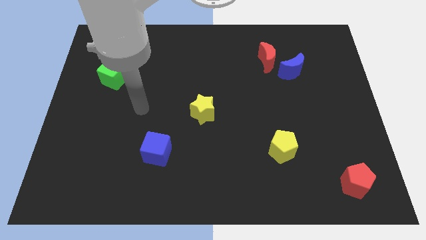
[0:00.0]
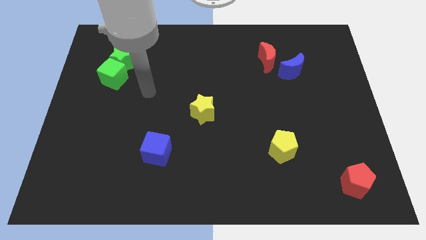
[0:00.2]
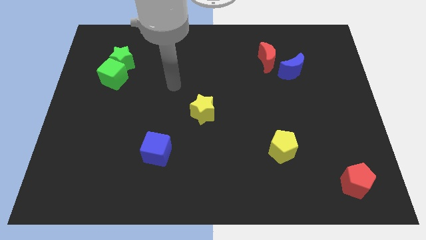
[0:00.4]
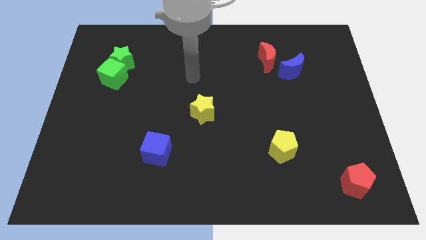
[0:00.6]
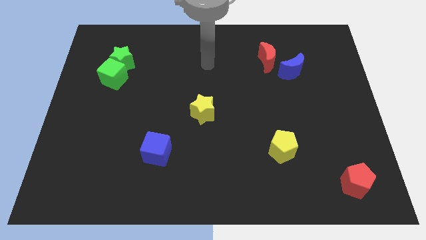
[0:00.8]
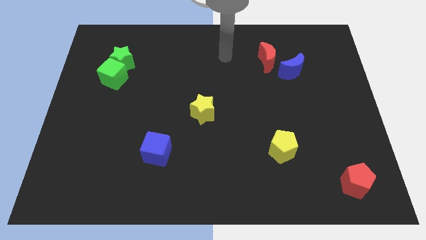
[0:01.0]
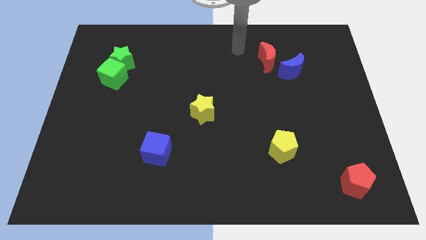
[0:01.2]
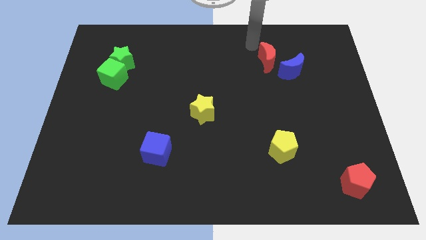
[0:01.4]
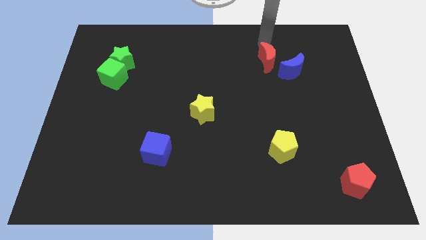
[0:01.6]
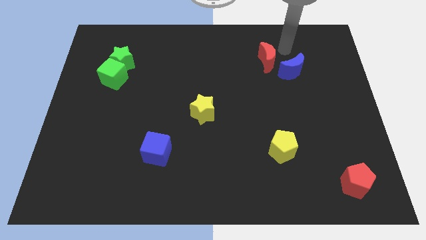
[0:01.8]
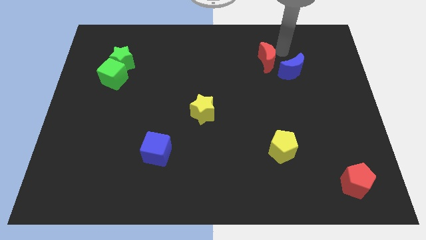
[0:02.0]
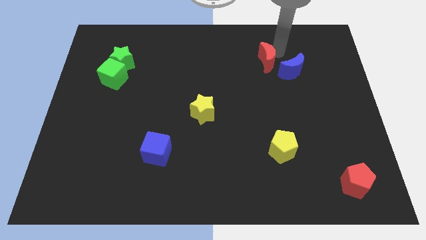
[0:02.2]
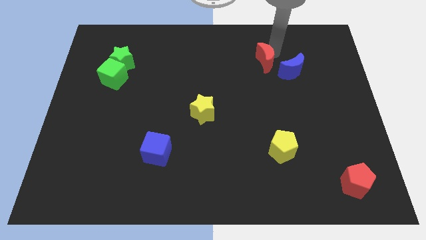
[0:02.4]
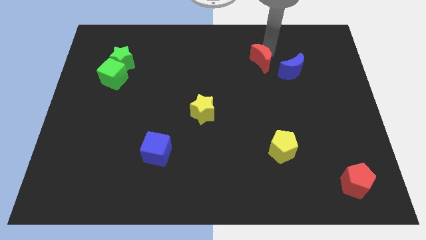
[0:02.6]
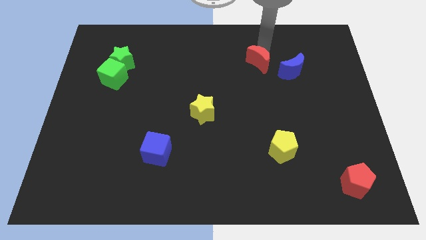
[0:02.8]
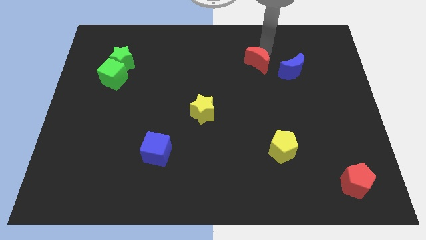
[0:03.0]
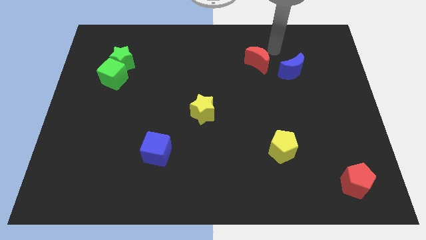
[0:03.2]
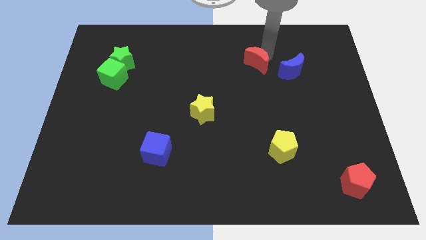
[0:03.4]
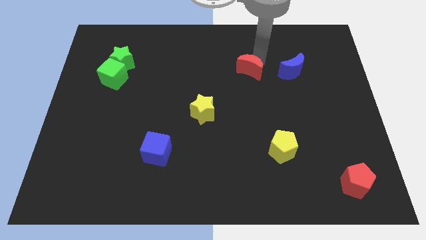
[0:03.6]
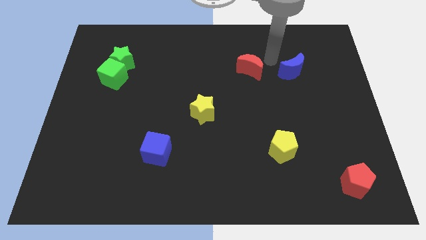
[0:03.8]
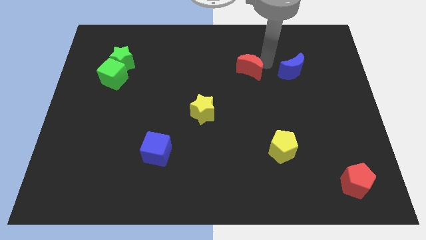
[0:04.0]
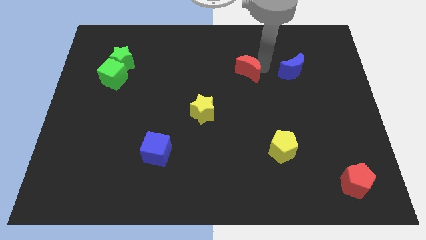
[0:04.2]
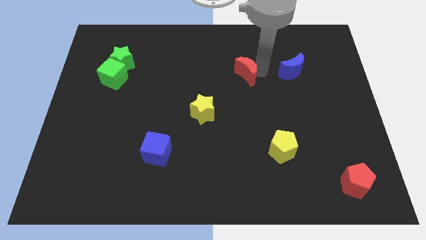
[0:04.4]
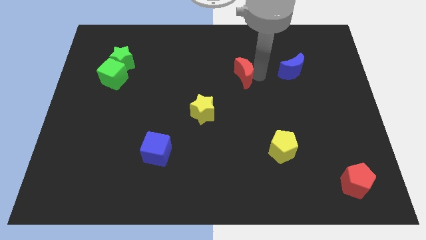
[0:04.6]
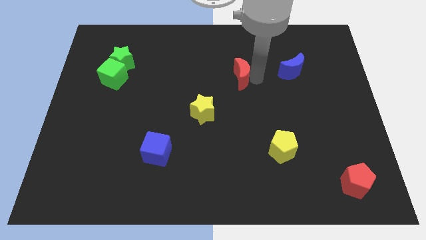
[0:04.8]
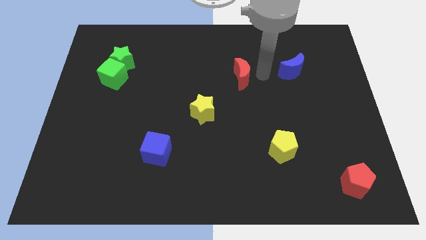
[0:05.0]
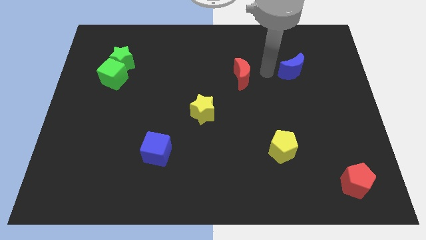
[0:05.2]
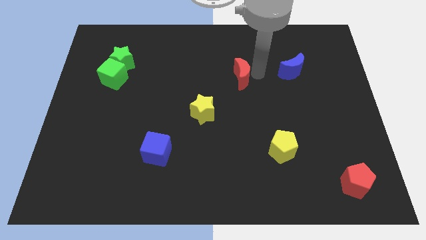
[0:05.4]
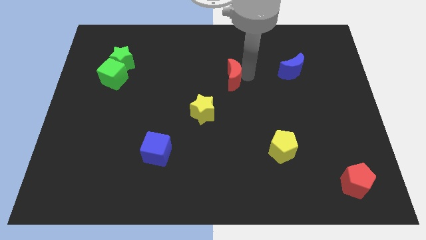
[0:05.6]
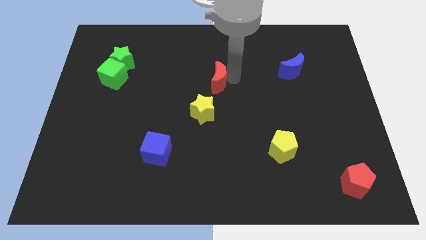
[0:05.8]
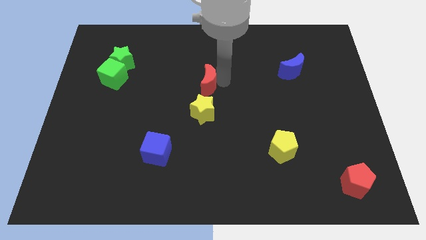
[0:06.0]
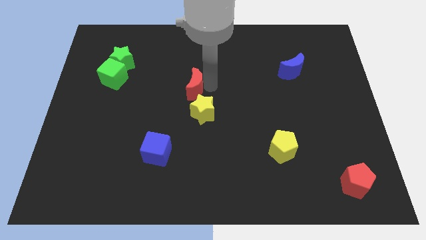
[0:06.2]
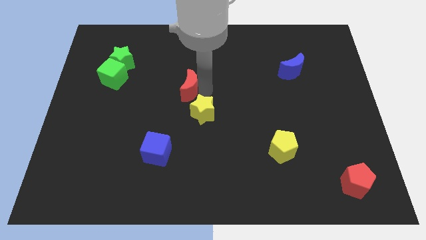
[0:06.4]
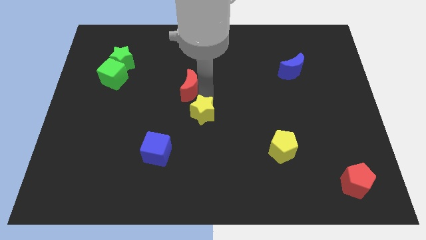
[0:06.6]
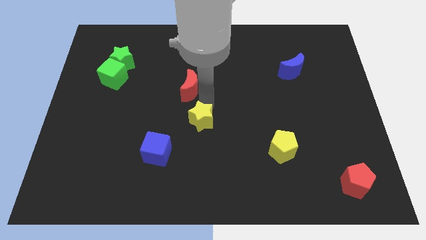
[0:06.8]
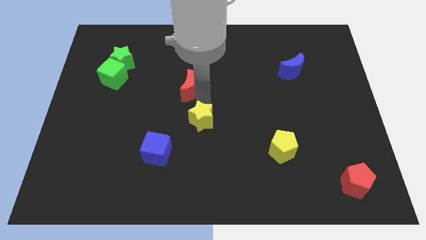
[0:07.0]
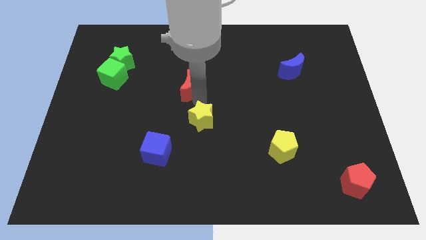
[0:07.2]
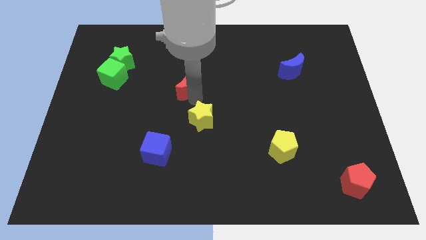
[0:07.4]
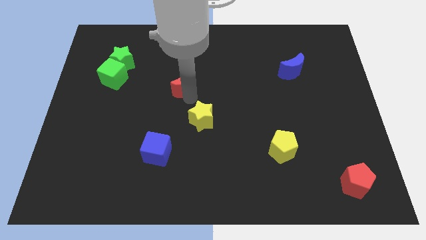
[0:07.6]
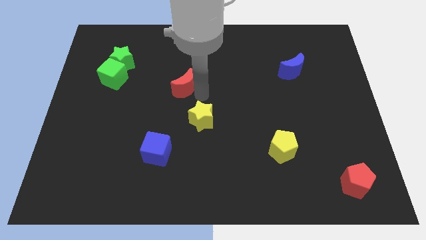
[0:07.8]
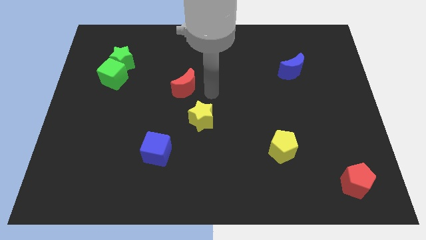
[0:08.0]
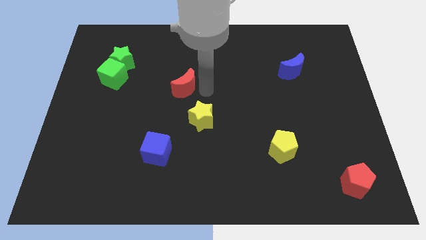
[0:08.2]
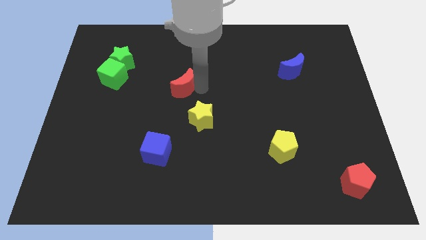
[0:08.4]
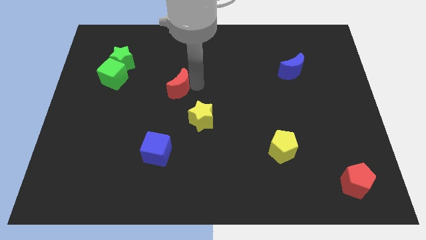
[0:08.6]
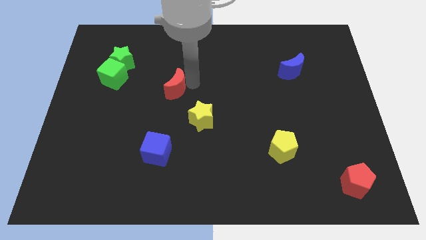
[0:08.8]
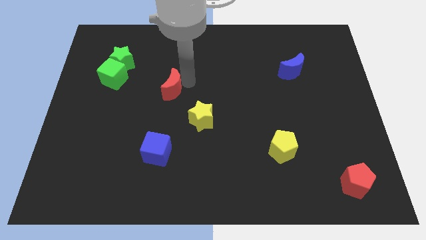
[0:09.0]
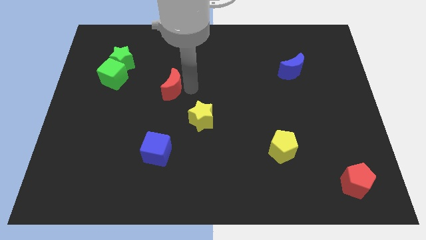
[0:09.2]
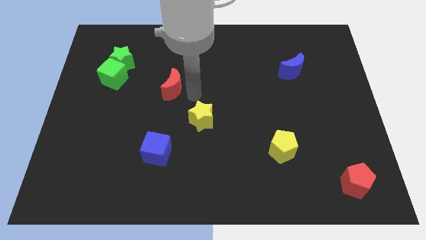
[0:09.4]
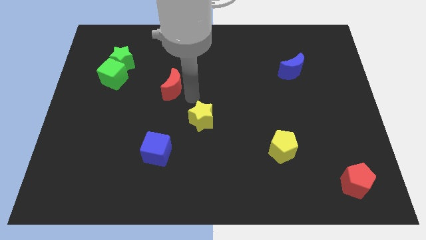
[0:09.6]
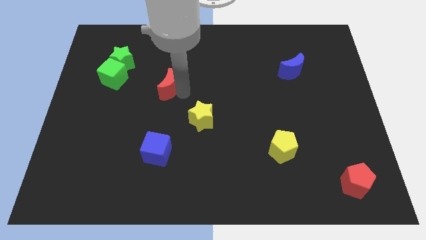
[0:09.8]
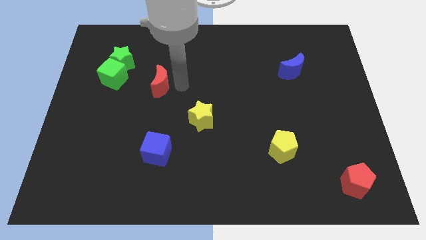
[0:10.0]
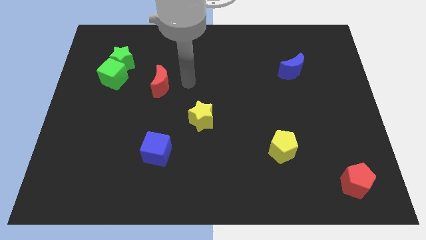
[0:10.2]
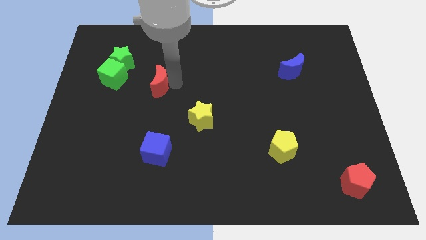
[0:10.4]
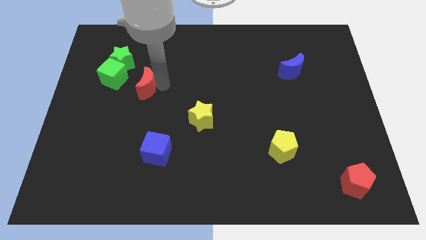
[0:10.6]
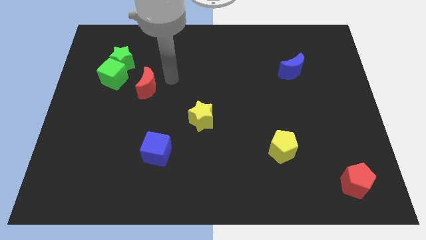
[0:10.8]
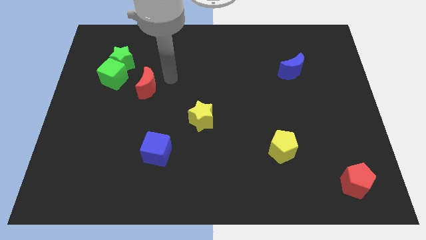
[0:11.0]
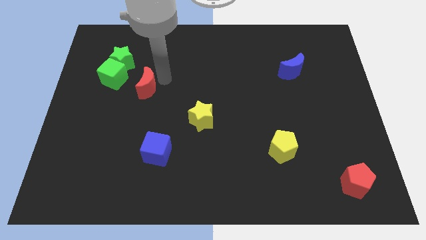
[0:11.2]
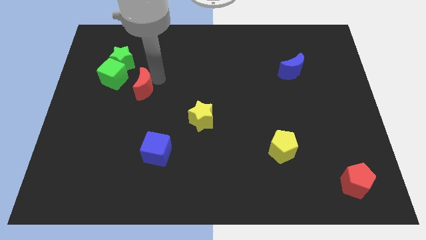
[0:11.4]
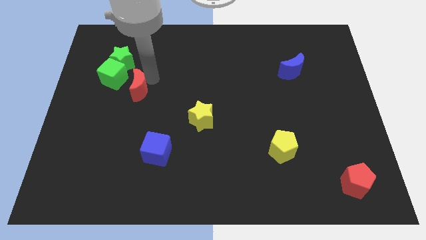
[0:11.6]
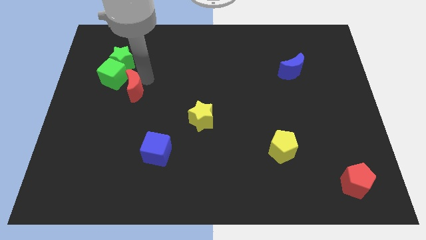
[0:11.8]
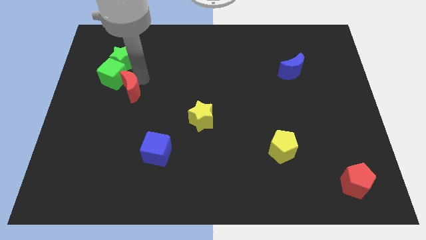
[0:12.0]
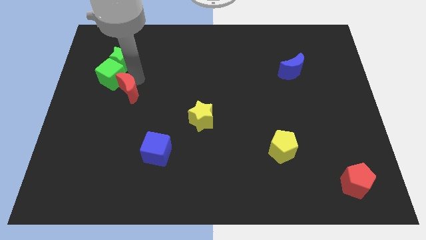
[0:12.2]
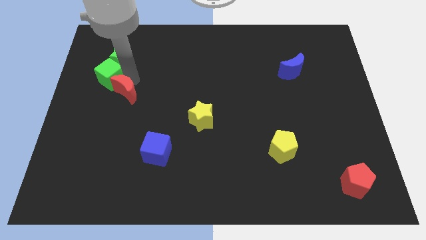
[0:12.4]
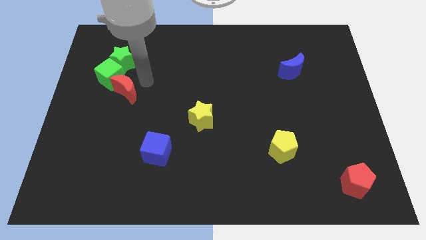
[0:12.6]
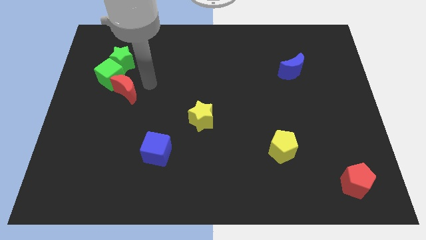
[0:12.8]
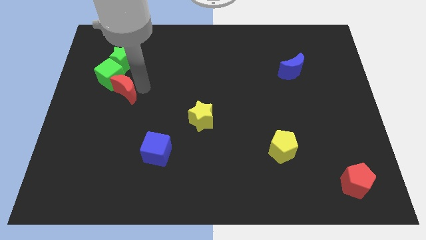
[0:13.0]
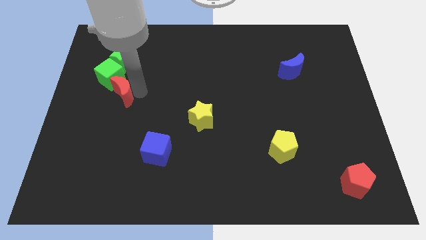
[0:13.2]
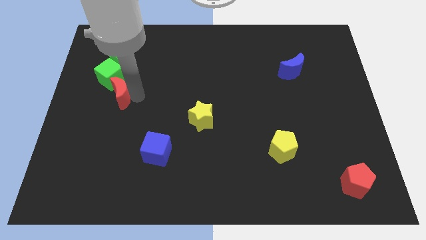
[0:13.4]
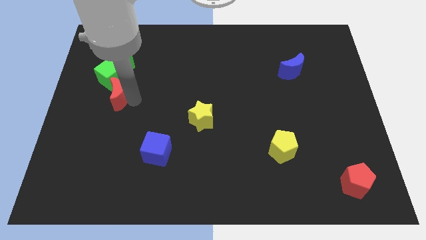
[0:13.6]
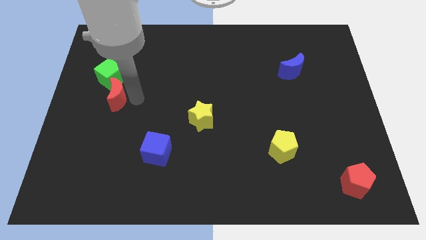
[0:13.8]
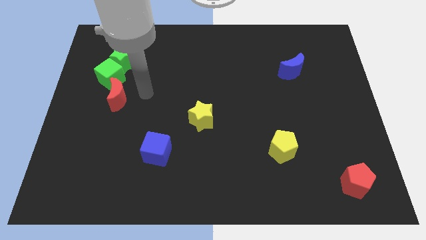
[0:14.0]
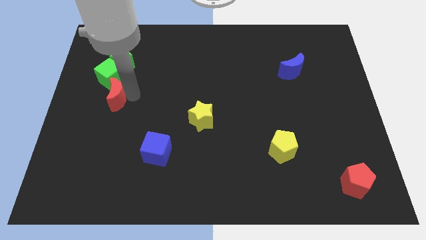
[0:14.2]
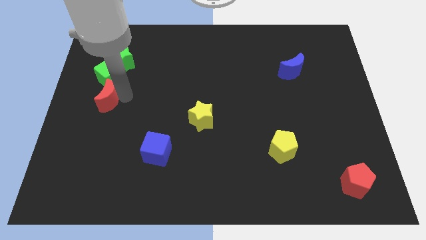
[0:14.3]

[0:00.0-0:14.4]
put the red moon to the left side of the board
